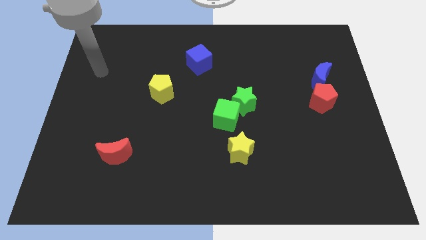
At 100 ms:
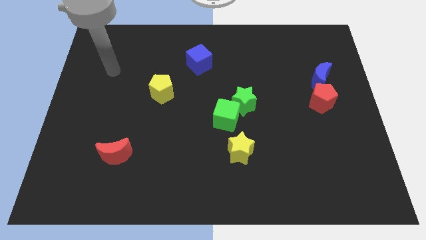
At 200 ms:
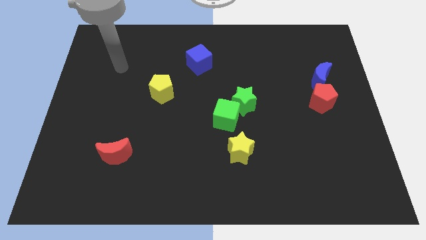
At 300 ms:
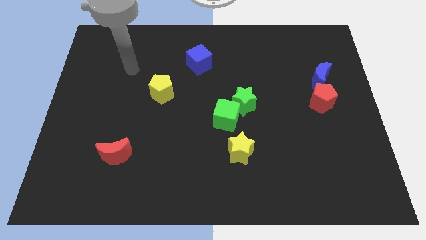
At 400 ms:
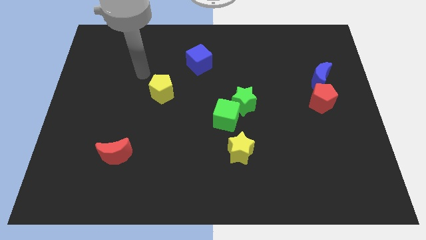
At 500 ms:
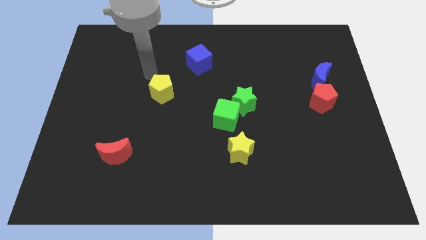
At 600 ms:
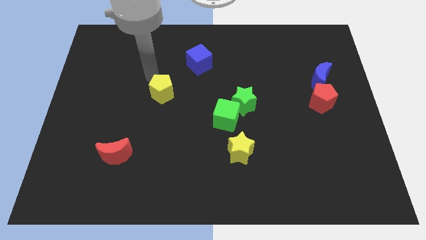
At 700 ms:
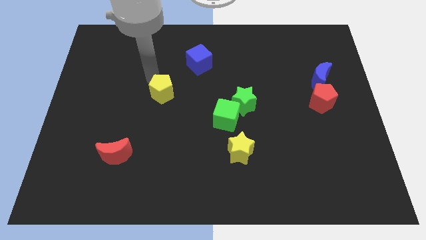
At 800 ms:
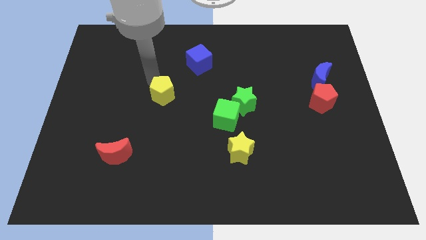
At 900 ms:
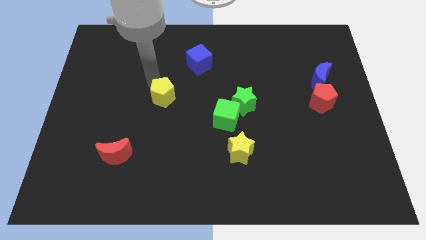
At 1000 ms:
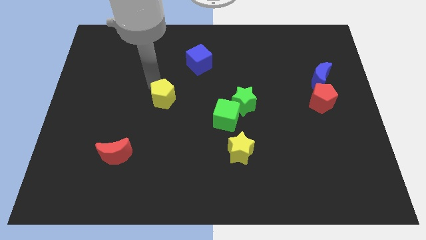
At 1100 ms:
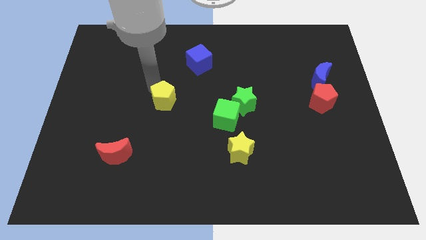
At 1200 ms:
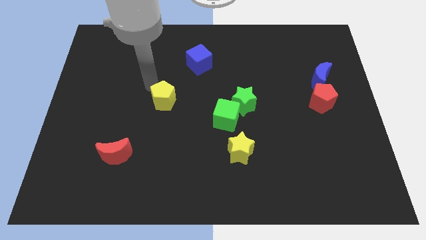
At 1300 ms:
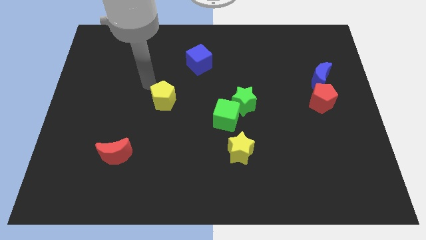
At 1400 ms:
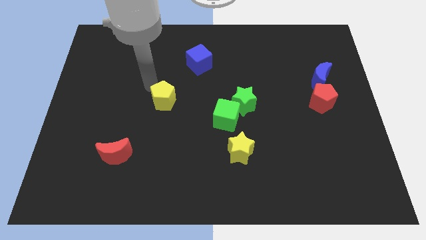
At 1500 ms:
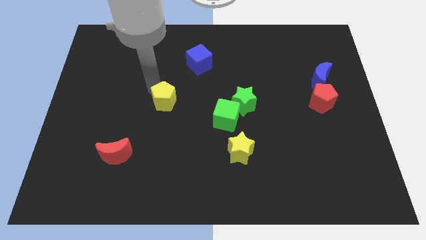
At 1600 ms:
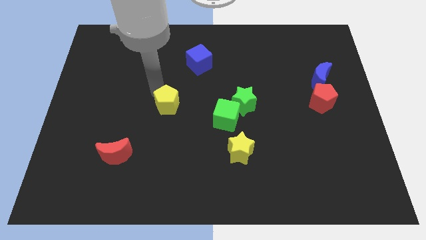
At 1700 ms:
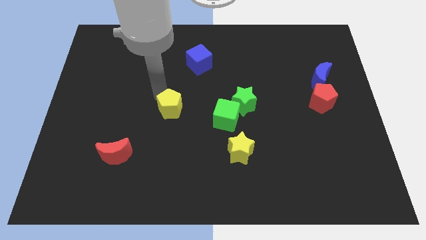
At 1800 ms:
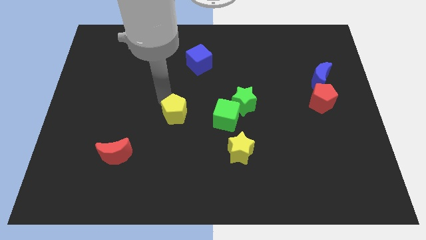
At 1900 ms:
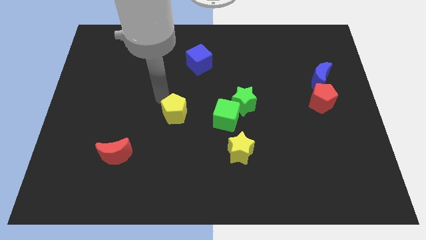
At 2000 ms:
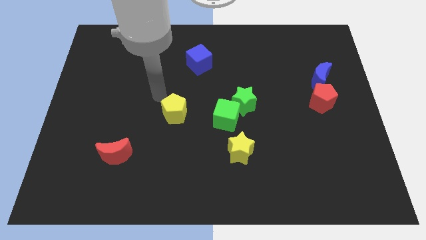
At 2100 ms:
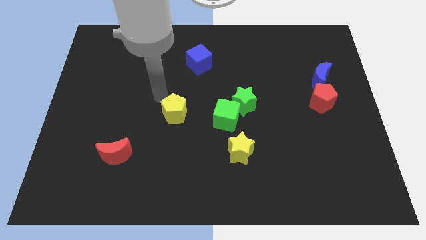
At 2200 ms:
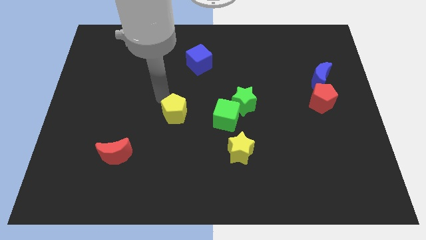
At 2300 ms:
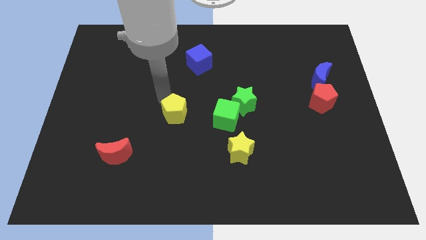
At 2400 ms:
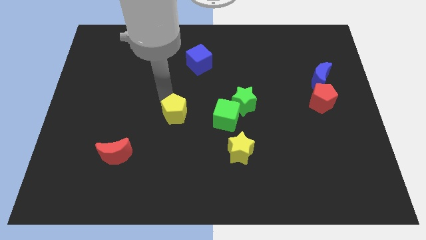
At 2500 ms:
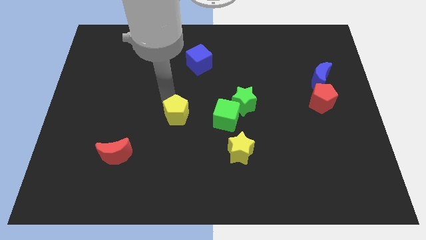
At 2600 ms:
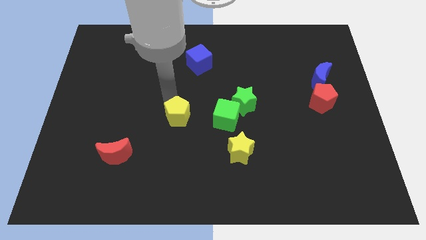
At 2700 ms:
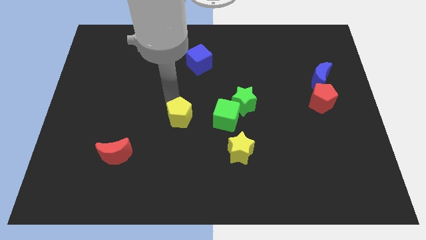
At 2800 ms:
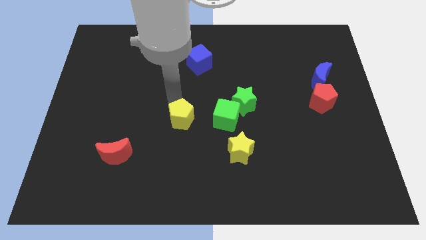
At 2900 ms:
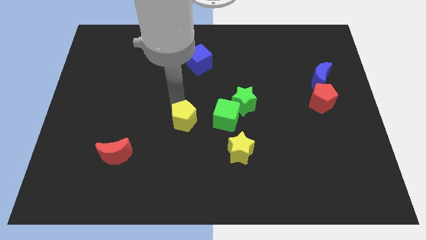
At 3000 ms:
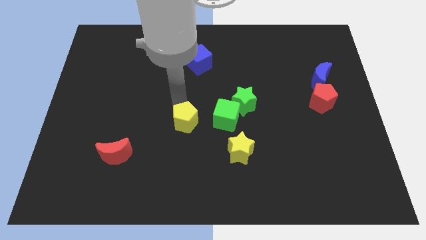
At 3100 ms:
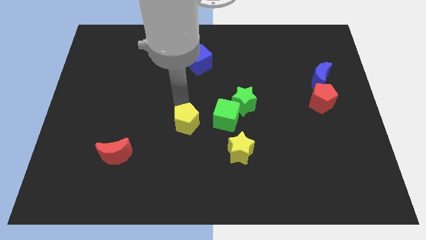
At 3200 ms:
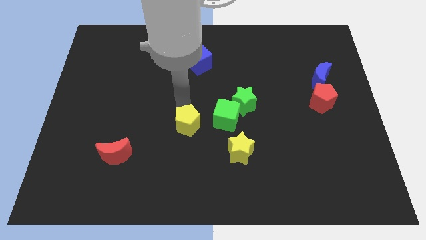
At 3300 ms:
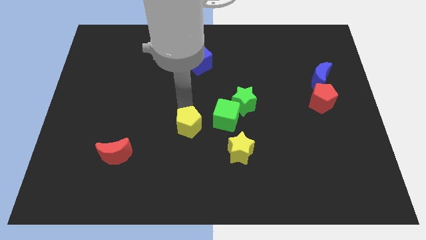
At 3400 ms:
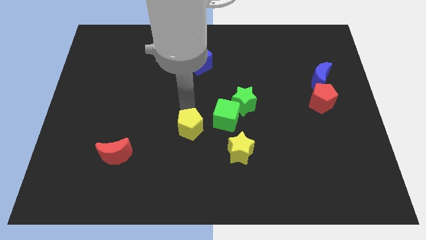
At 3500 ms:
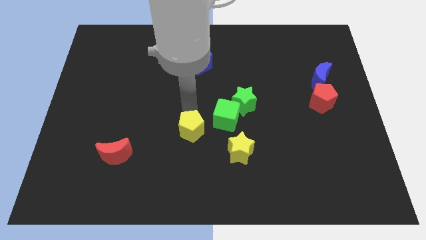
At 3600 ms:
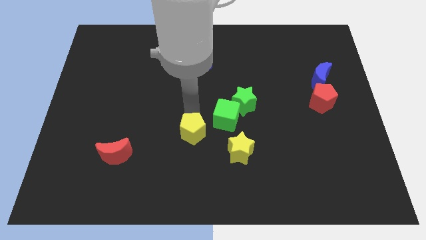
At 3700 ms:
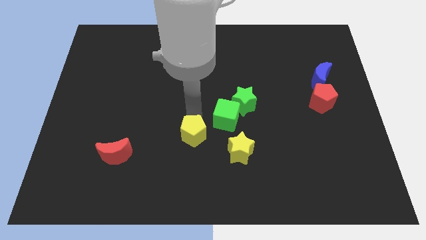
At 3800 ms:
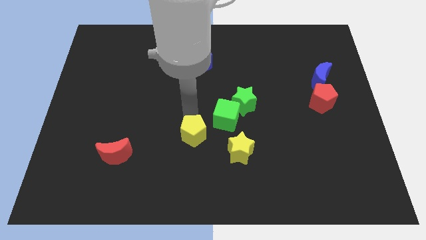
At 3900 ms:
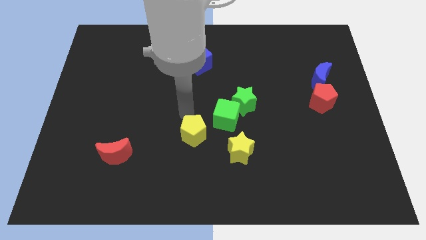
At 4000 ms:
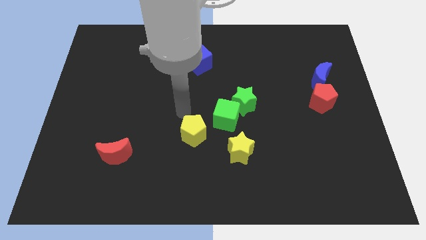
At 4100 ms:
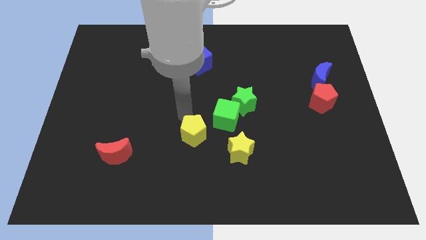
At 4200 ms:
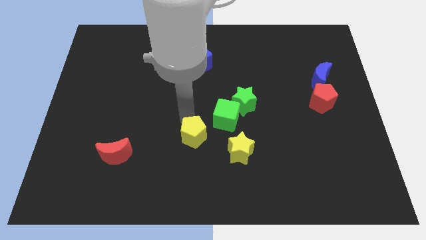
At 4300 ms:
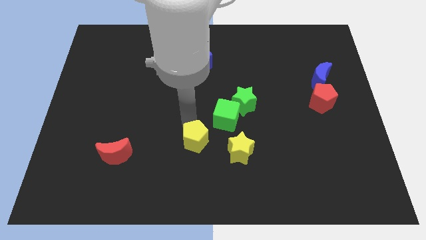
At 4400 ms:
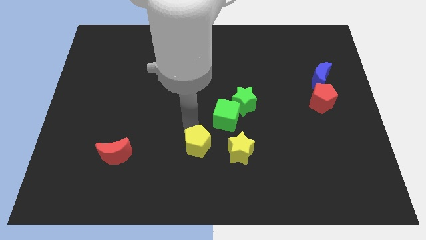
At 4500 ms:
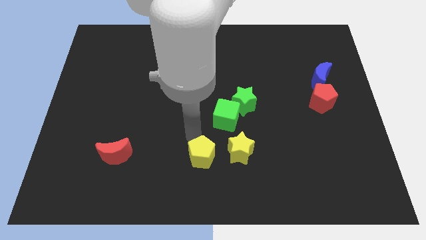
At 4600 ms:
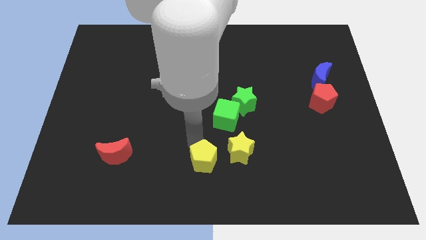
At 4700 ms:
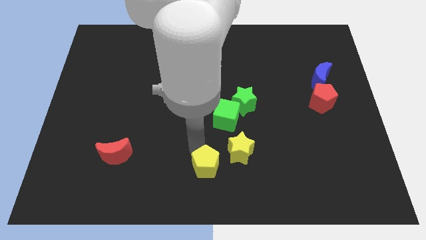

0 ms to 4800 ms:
push the yellow pentagon diagonally down and to the right

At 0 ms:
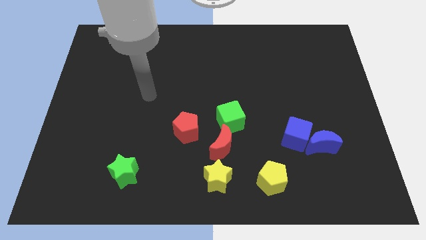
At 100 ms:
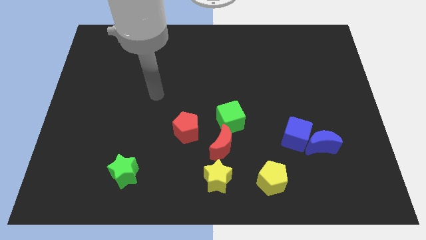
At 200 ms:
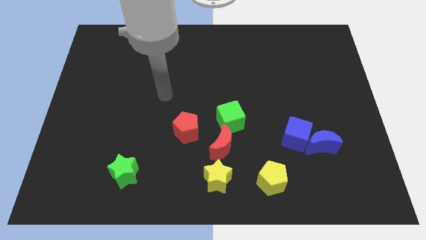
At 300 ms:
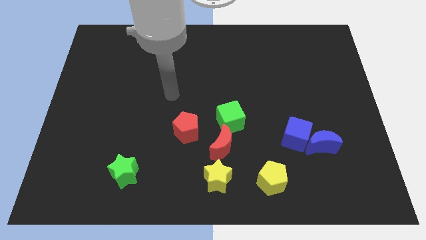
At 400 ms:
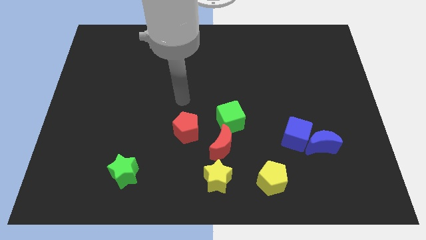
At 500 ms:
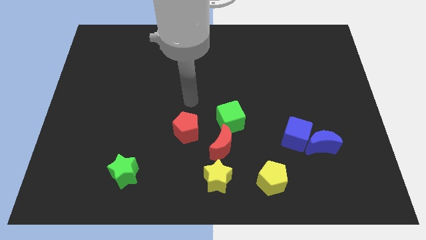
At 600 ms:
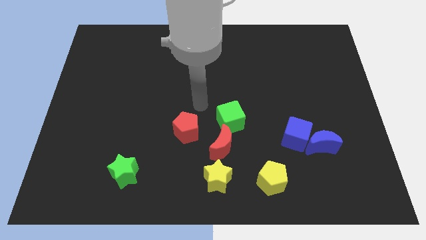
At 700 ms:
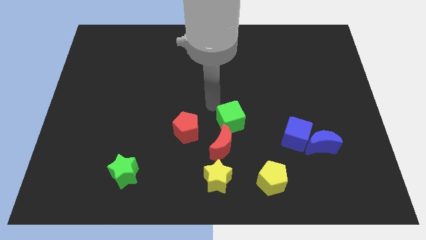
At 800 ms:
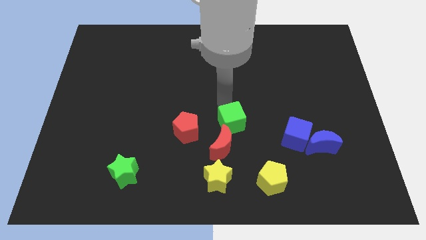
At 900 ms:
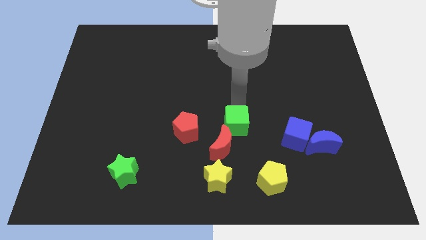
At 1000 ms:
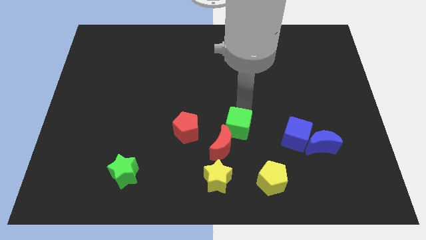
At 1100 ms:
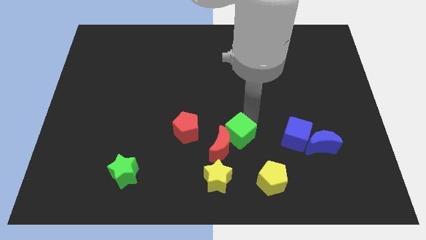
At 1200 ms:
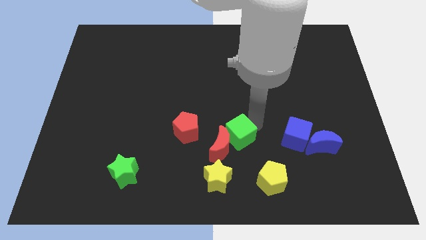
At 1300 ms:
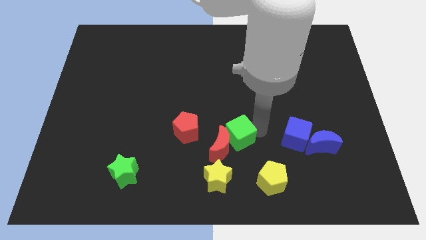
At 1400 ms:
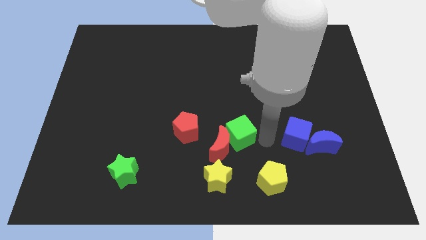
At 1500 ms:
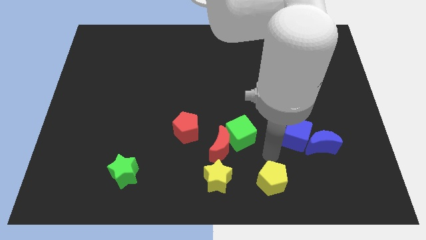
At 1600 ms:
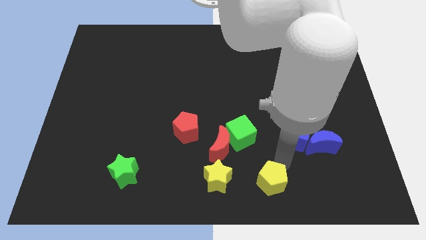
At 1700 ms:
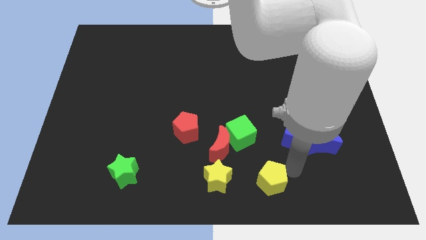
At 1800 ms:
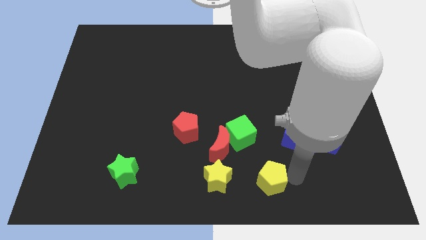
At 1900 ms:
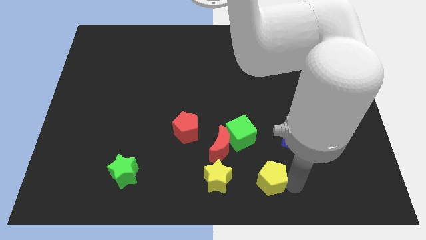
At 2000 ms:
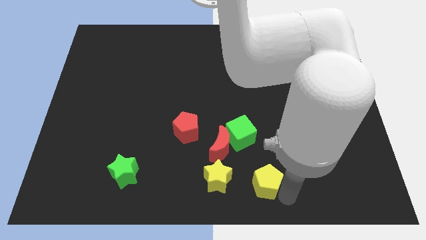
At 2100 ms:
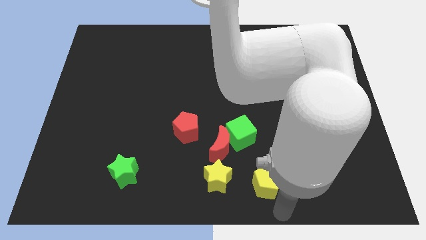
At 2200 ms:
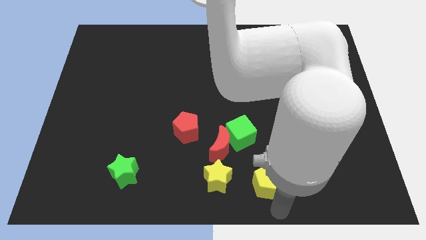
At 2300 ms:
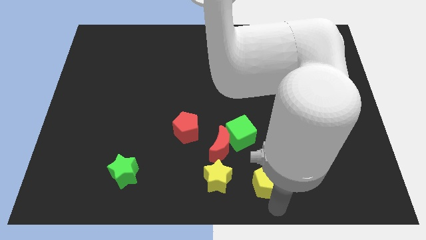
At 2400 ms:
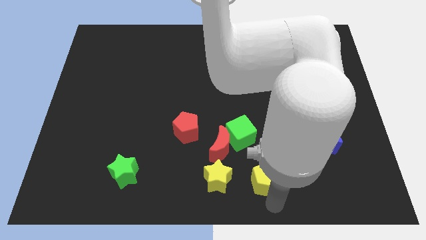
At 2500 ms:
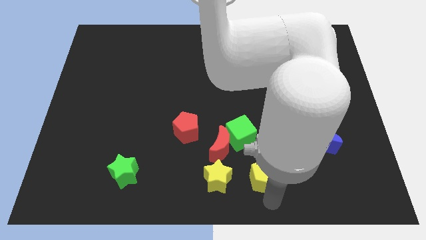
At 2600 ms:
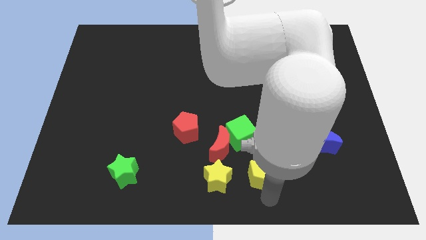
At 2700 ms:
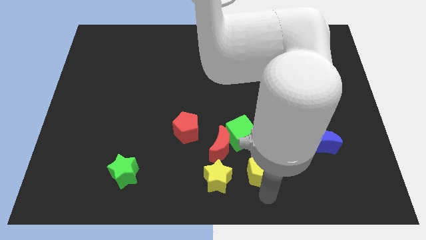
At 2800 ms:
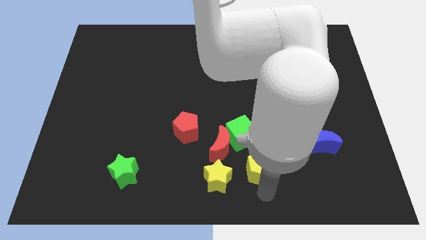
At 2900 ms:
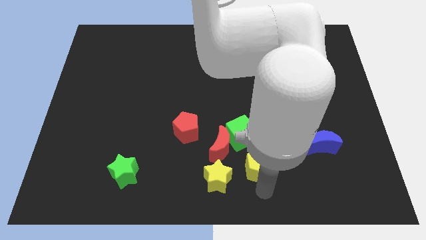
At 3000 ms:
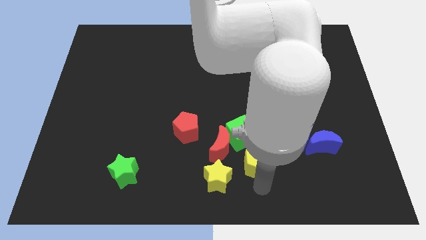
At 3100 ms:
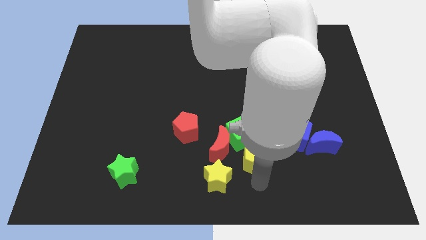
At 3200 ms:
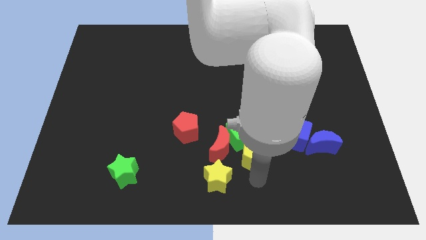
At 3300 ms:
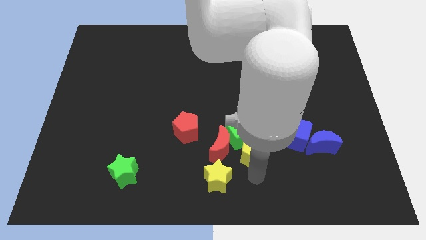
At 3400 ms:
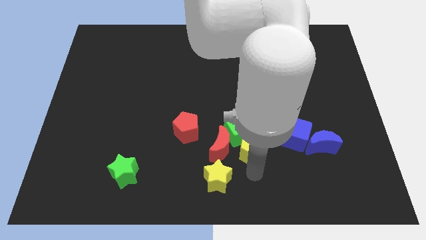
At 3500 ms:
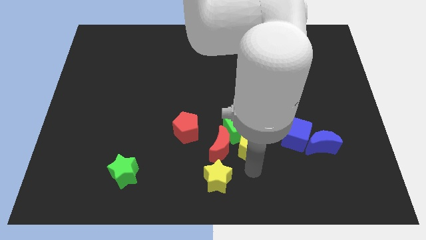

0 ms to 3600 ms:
push the yellow pentagon a bit up
